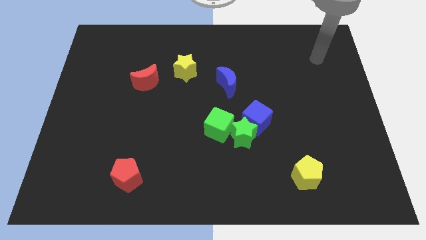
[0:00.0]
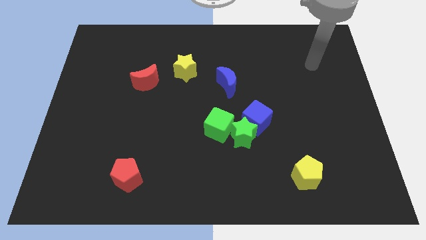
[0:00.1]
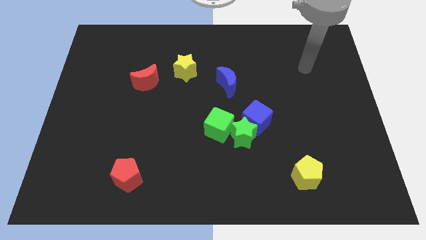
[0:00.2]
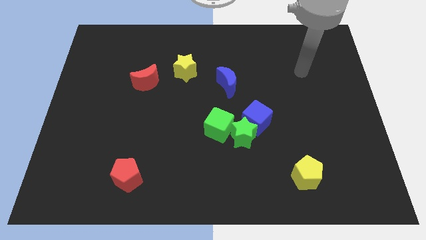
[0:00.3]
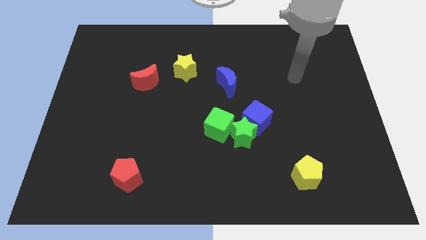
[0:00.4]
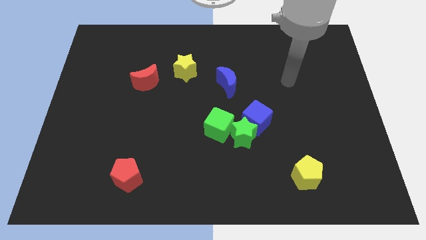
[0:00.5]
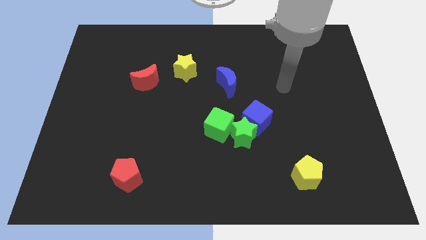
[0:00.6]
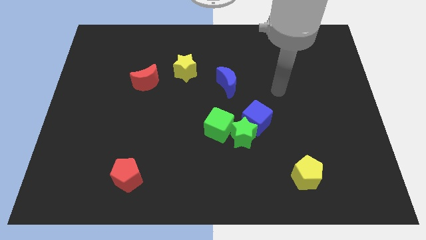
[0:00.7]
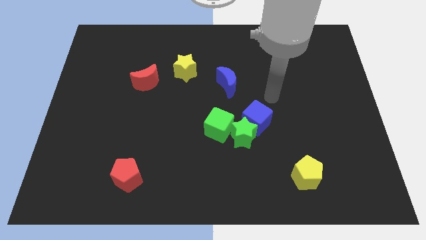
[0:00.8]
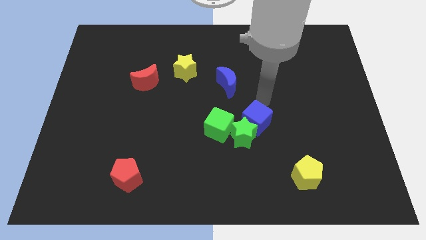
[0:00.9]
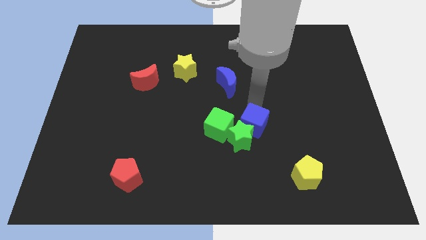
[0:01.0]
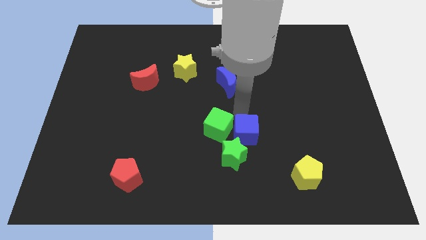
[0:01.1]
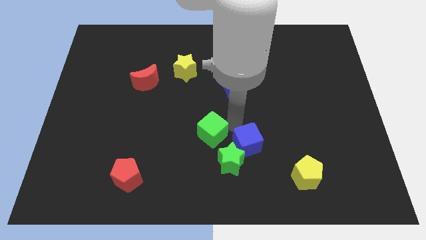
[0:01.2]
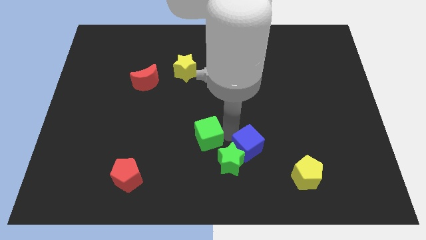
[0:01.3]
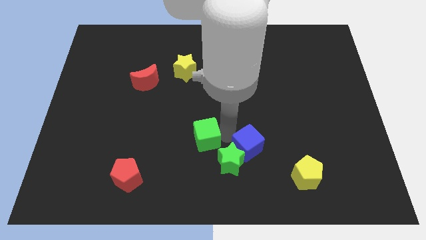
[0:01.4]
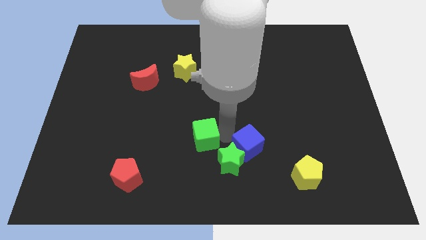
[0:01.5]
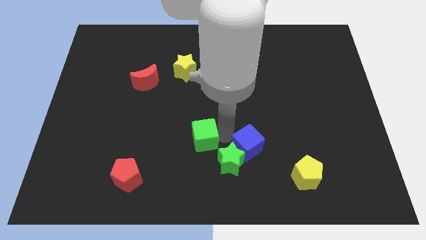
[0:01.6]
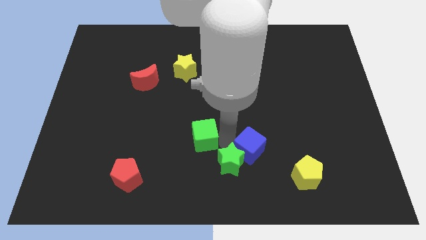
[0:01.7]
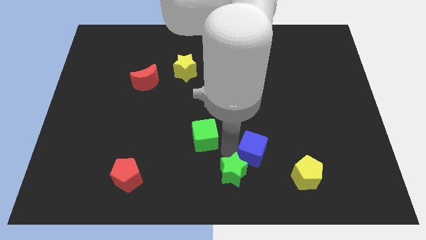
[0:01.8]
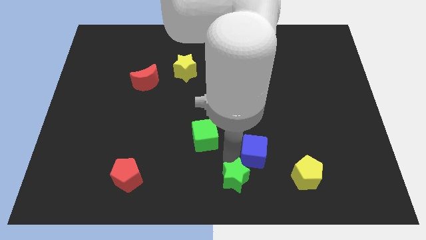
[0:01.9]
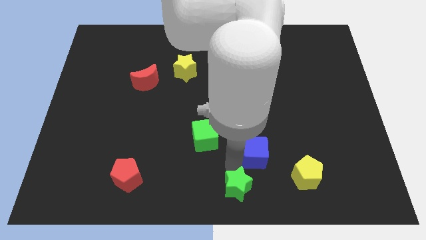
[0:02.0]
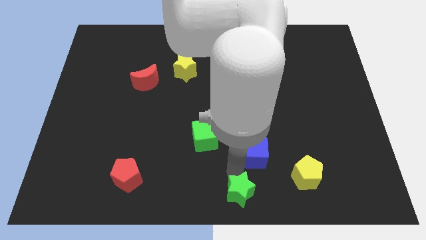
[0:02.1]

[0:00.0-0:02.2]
move the green star away from the blue cube and green cube

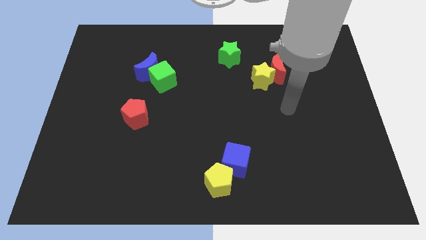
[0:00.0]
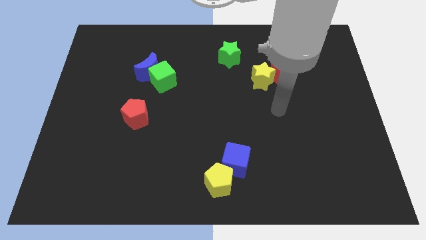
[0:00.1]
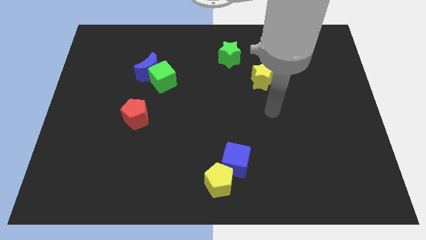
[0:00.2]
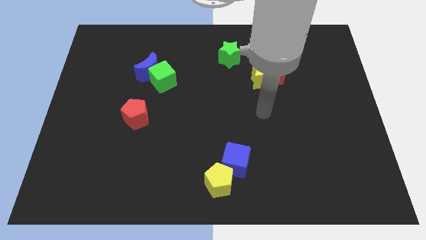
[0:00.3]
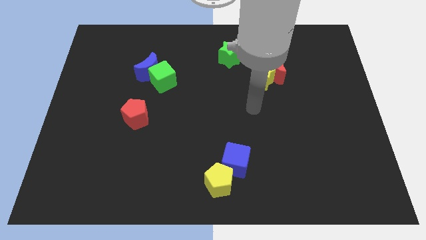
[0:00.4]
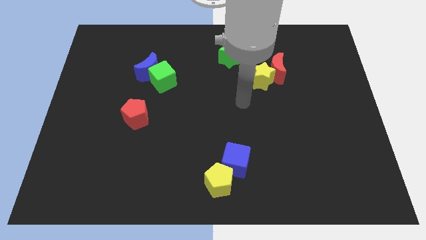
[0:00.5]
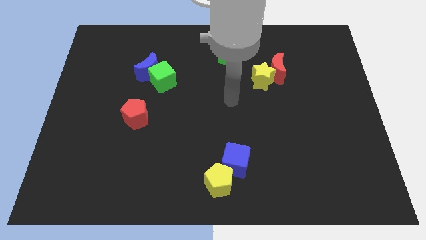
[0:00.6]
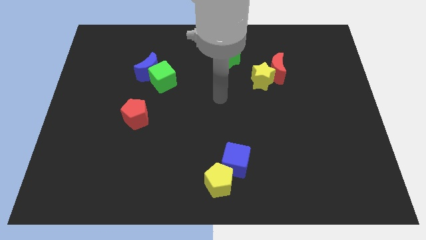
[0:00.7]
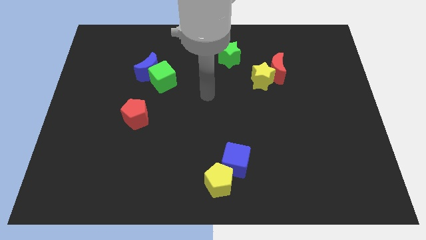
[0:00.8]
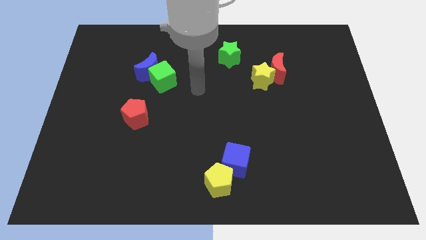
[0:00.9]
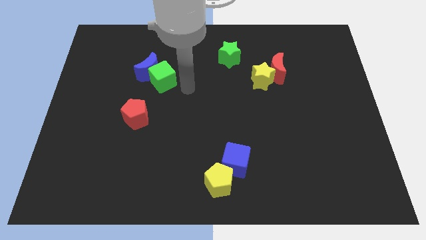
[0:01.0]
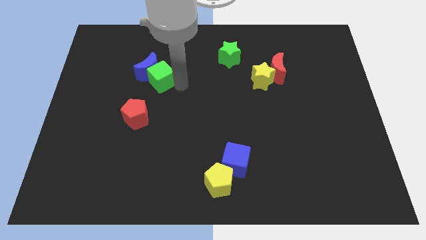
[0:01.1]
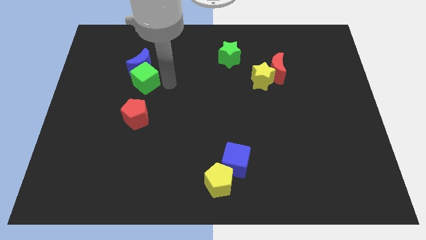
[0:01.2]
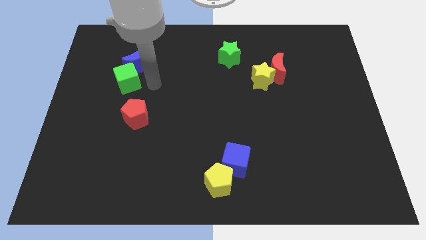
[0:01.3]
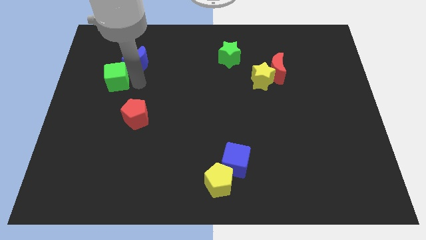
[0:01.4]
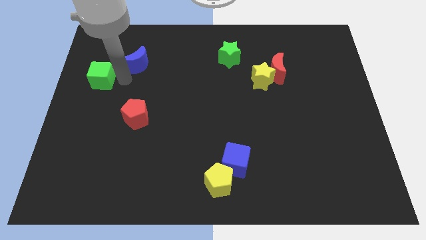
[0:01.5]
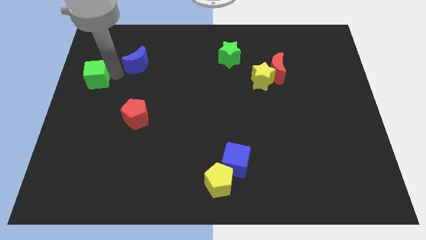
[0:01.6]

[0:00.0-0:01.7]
move the blue moon away from the green cube

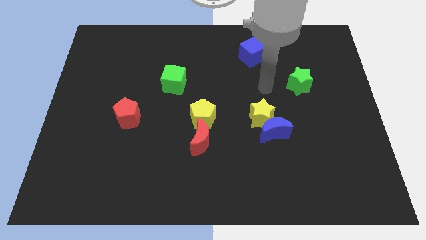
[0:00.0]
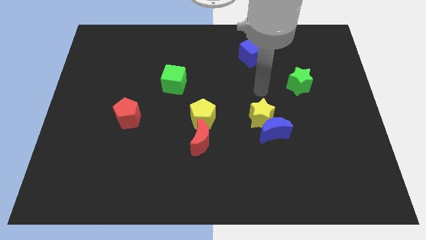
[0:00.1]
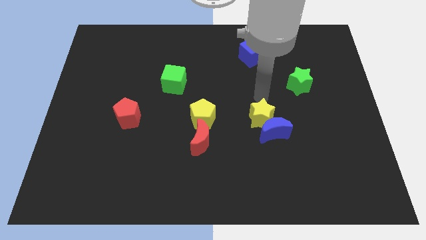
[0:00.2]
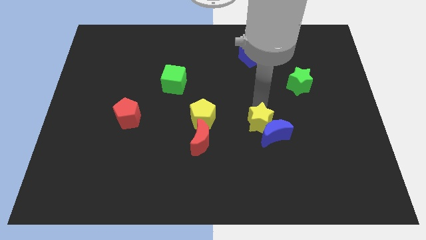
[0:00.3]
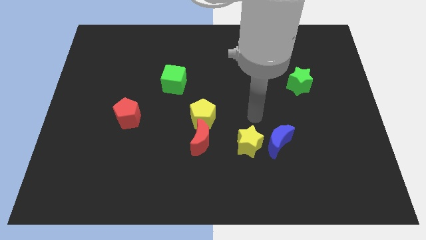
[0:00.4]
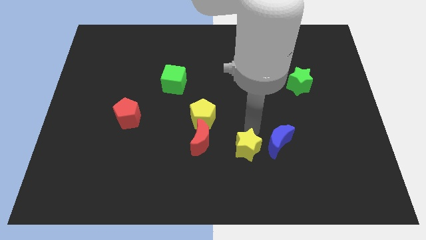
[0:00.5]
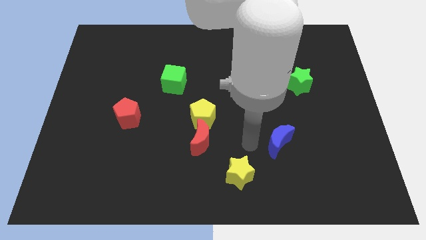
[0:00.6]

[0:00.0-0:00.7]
move the blue moon away from the yellow star

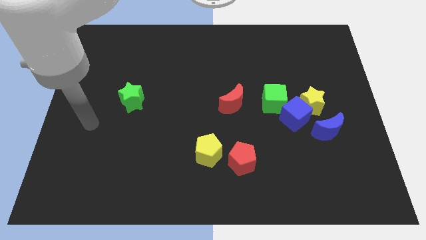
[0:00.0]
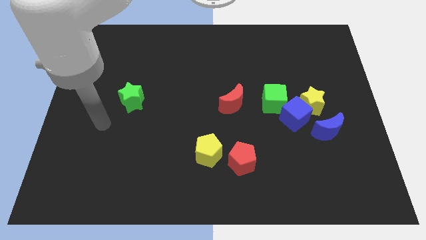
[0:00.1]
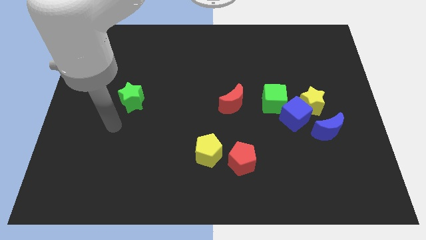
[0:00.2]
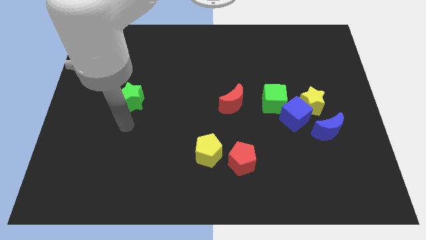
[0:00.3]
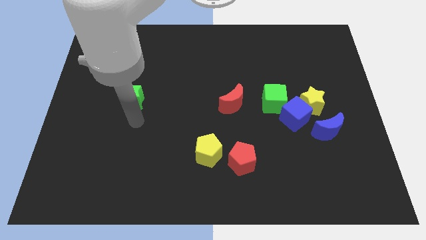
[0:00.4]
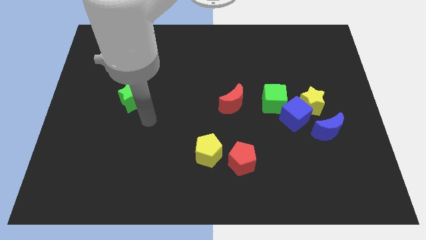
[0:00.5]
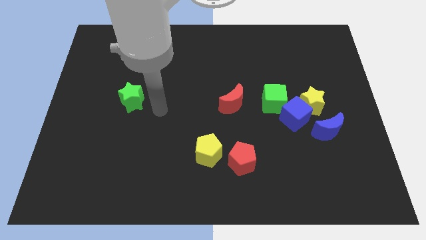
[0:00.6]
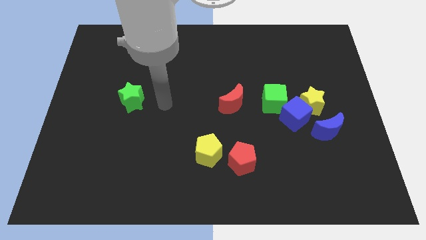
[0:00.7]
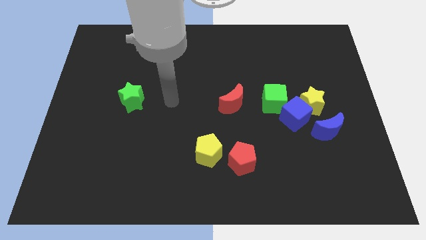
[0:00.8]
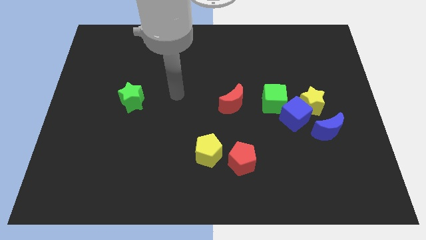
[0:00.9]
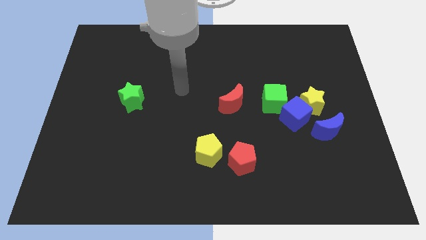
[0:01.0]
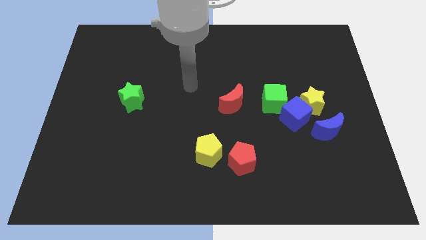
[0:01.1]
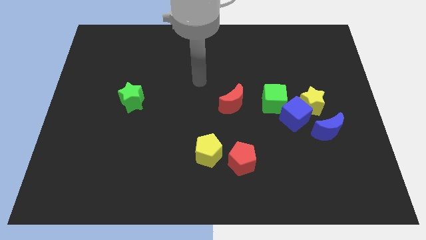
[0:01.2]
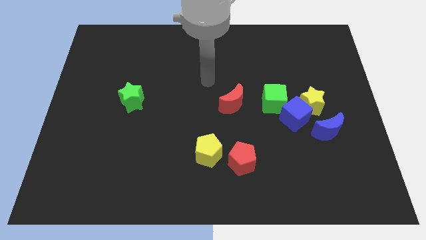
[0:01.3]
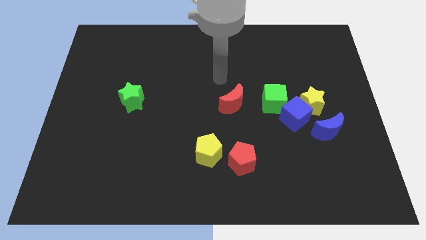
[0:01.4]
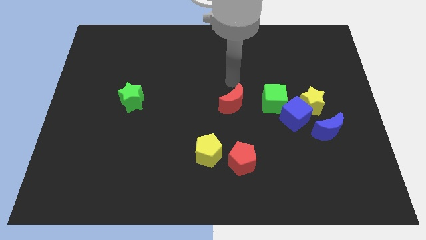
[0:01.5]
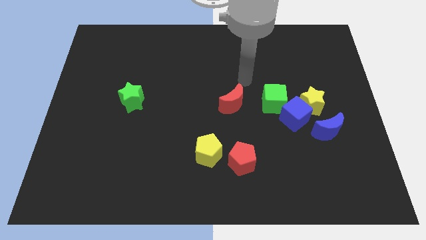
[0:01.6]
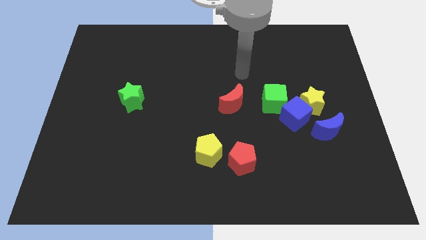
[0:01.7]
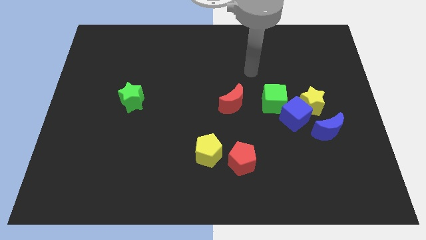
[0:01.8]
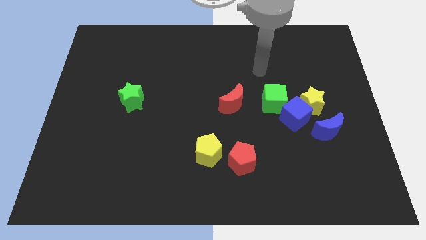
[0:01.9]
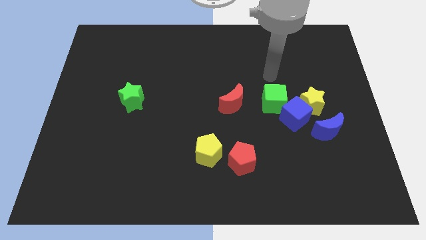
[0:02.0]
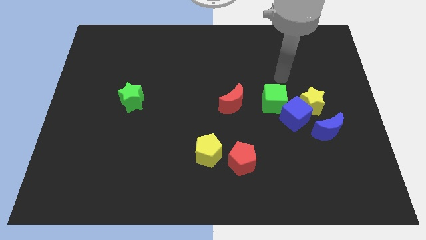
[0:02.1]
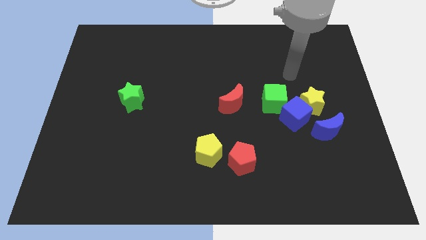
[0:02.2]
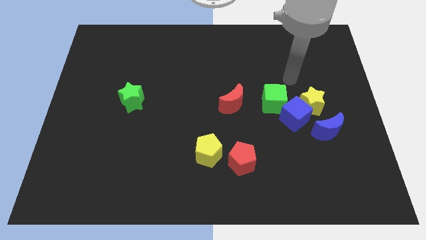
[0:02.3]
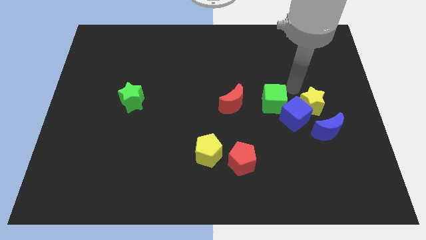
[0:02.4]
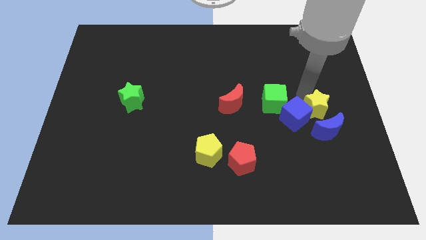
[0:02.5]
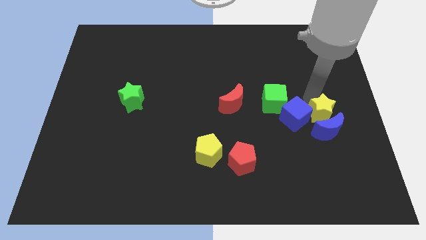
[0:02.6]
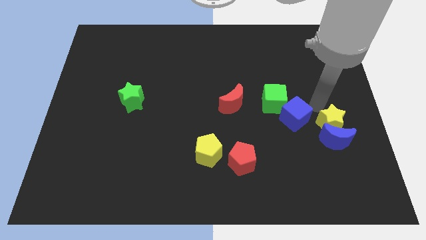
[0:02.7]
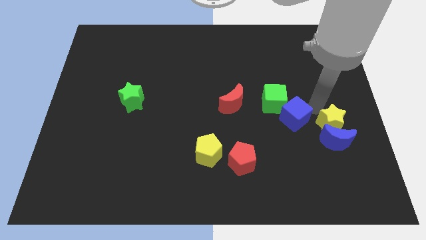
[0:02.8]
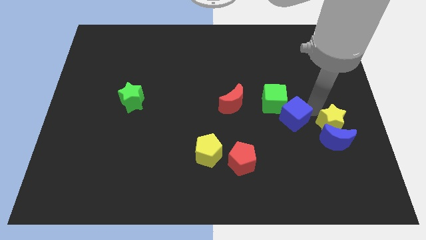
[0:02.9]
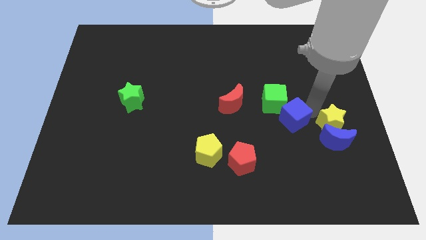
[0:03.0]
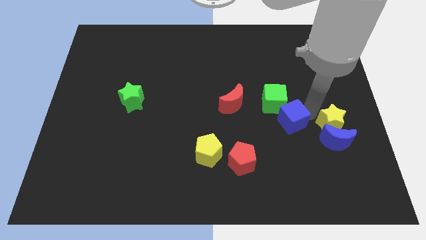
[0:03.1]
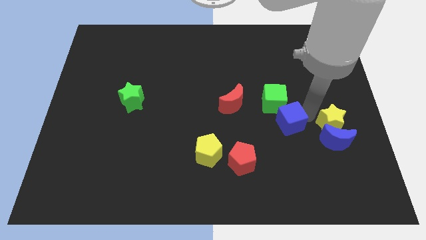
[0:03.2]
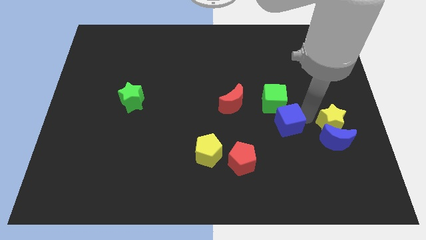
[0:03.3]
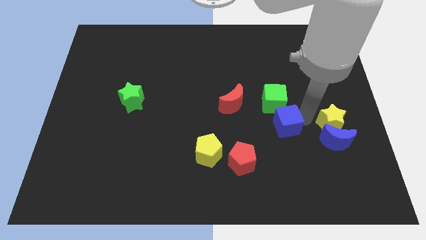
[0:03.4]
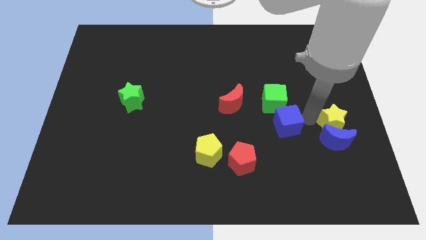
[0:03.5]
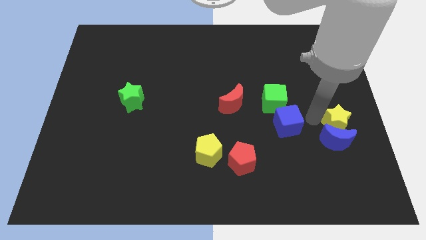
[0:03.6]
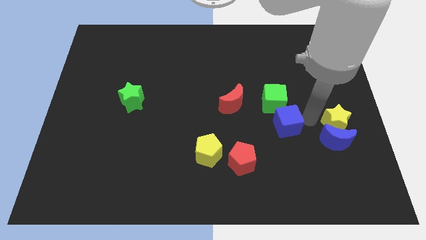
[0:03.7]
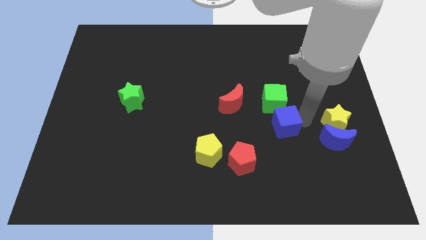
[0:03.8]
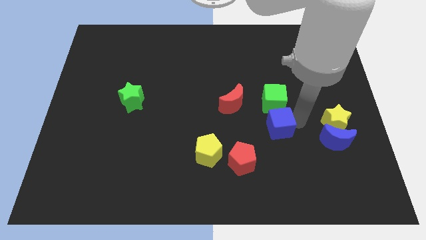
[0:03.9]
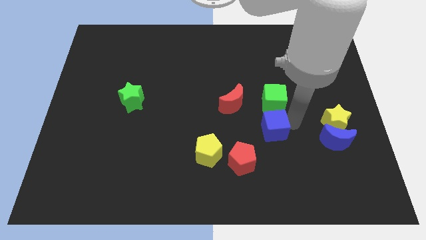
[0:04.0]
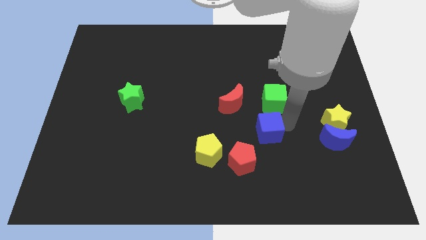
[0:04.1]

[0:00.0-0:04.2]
pull the blue cube apart from the group

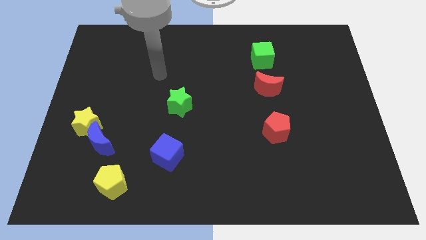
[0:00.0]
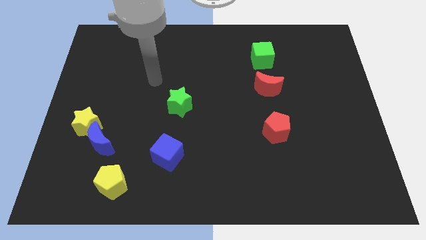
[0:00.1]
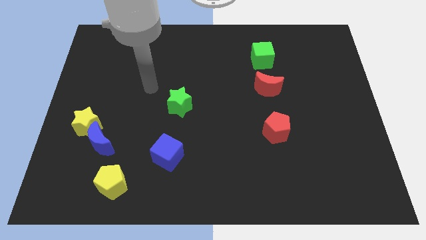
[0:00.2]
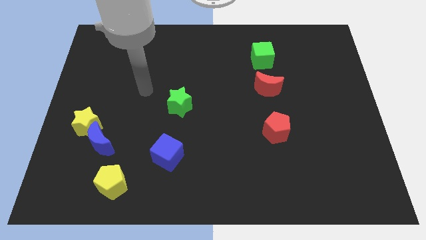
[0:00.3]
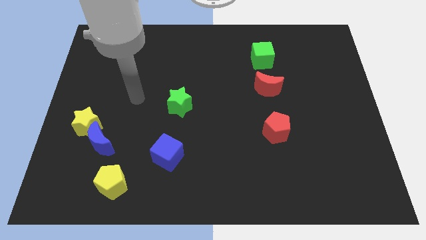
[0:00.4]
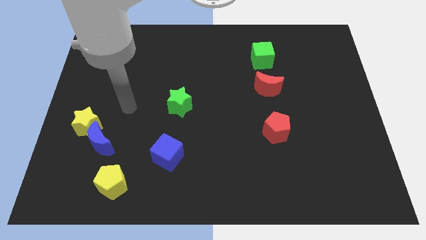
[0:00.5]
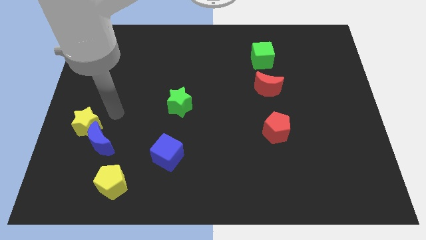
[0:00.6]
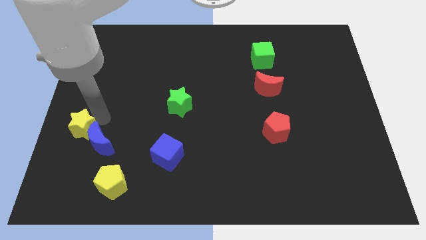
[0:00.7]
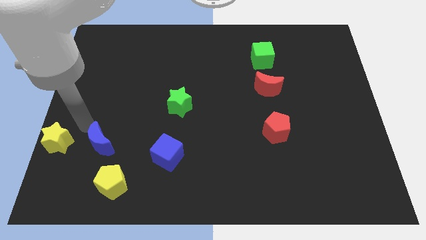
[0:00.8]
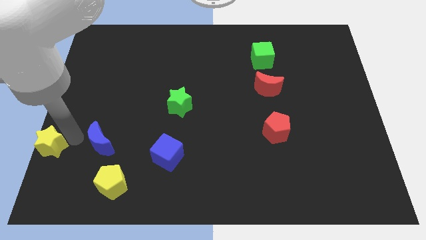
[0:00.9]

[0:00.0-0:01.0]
pull the blue moon apart from the yellow star
